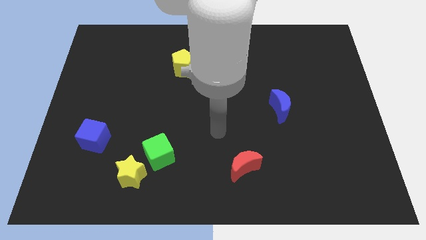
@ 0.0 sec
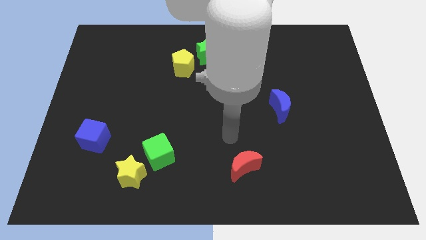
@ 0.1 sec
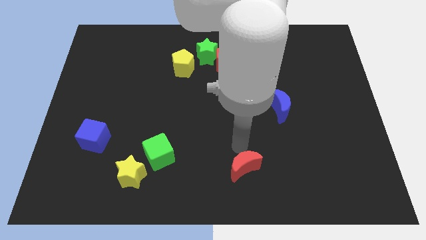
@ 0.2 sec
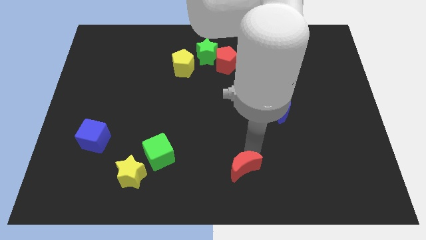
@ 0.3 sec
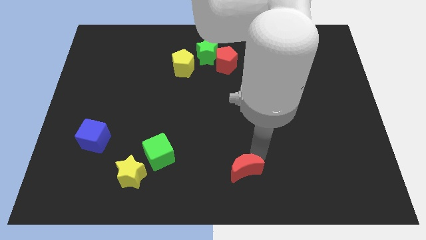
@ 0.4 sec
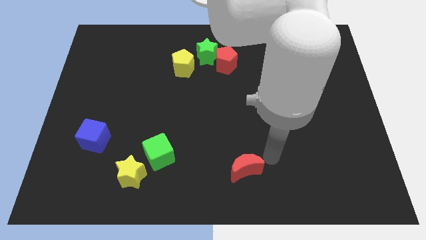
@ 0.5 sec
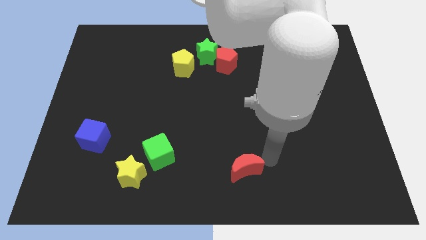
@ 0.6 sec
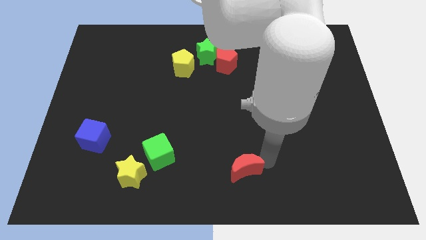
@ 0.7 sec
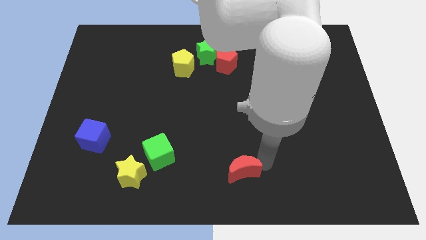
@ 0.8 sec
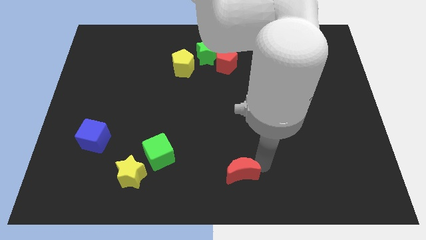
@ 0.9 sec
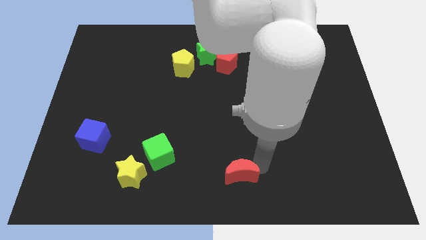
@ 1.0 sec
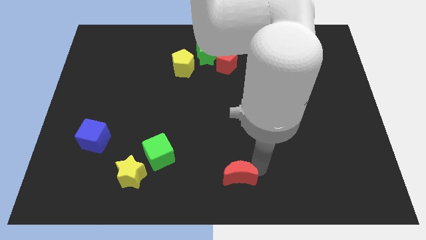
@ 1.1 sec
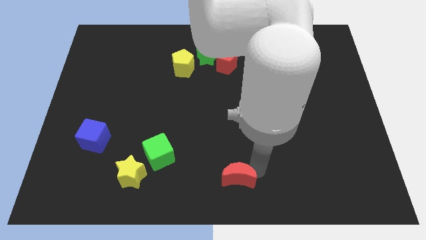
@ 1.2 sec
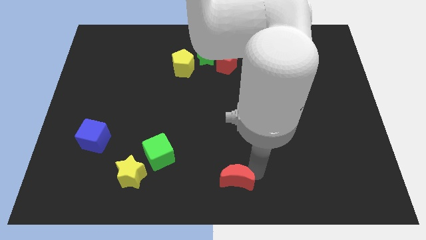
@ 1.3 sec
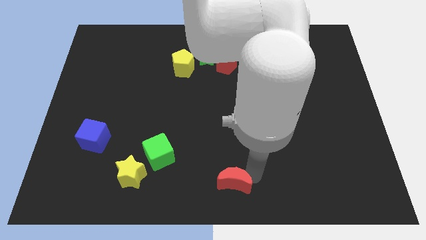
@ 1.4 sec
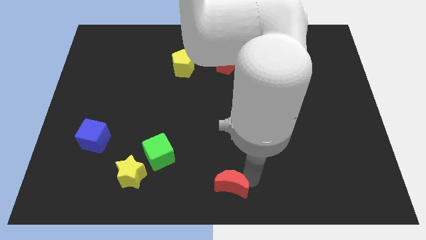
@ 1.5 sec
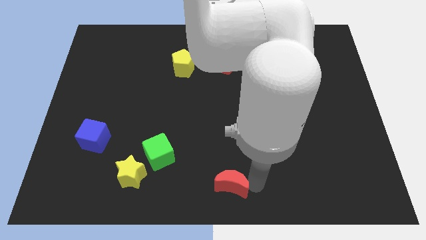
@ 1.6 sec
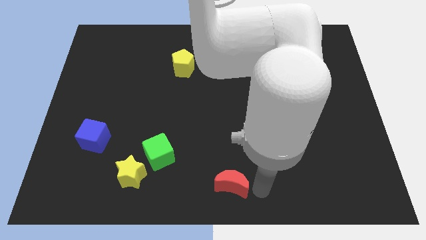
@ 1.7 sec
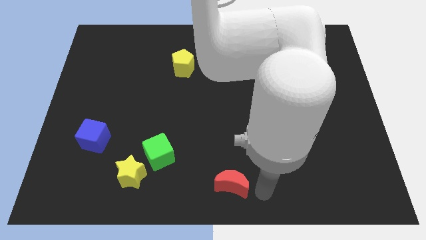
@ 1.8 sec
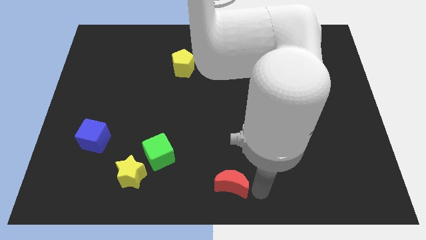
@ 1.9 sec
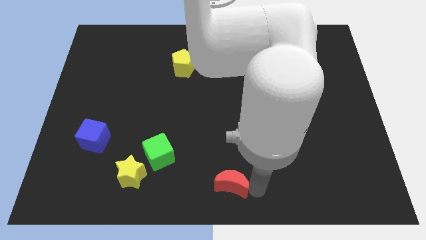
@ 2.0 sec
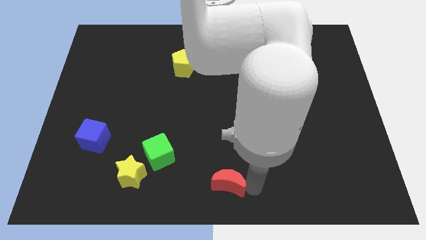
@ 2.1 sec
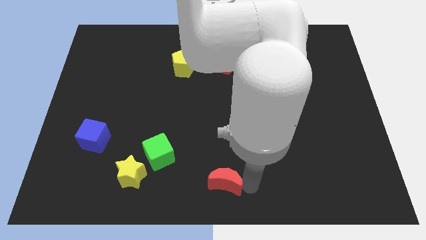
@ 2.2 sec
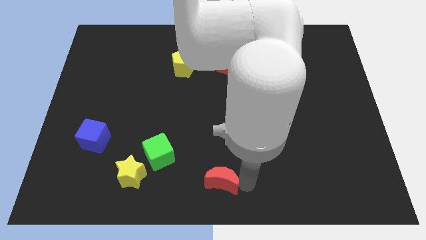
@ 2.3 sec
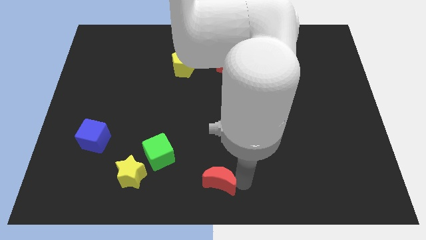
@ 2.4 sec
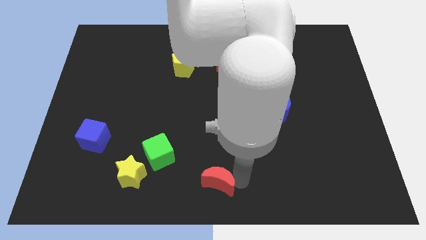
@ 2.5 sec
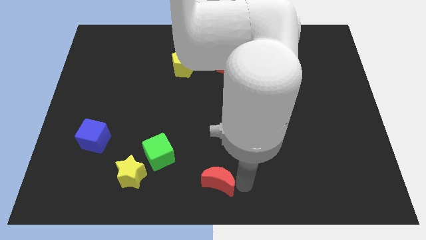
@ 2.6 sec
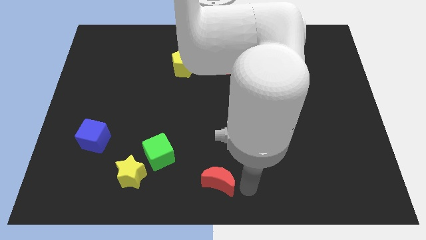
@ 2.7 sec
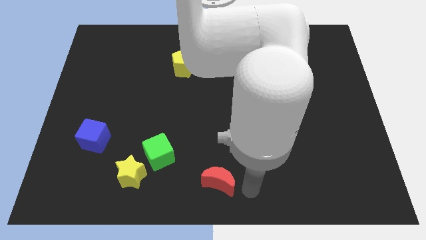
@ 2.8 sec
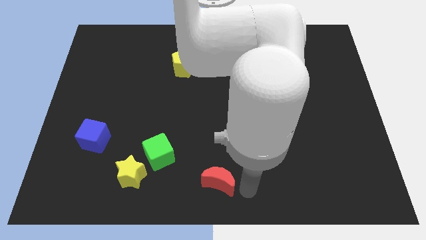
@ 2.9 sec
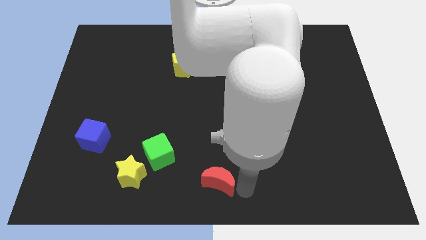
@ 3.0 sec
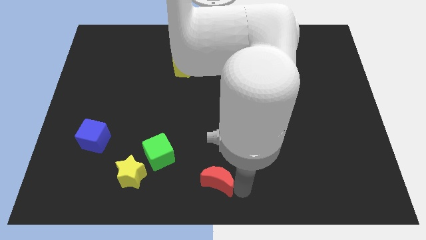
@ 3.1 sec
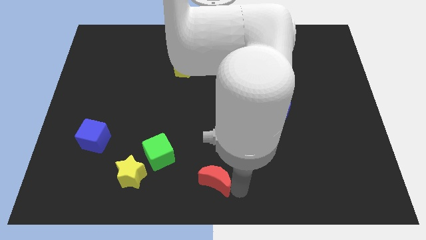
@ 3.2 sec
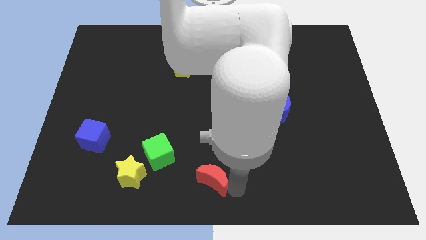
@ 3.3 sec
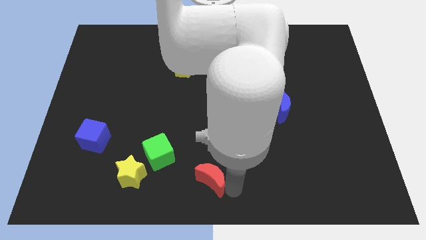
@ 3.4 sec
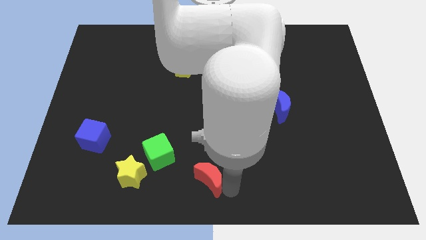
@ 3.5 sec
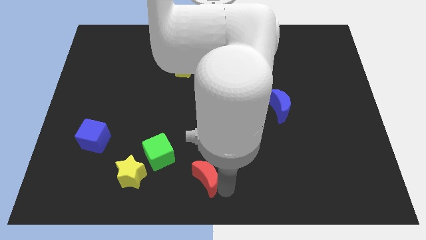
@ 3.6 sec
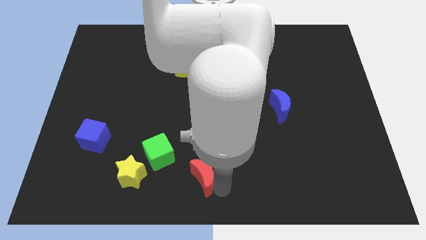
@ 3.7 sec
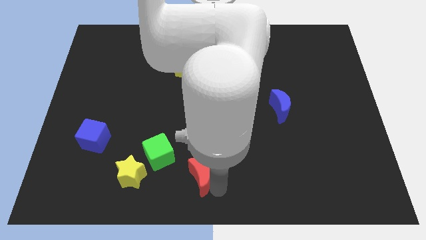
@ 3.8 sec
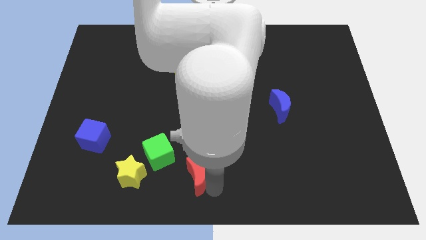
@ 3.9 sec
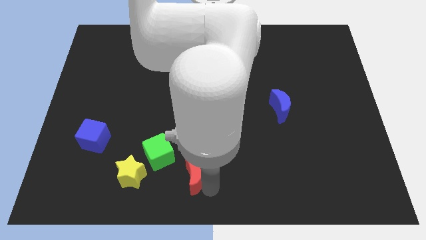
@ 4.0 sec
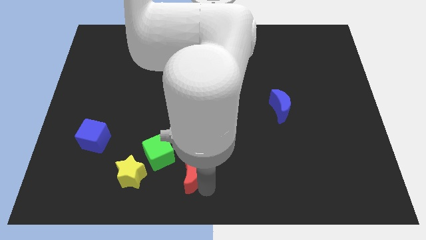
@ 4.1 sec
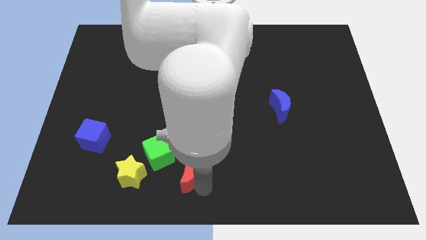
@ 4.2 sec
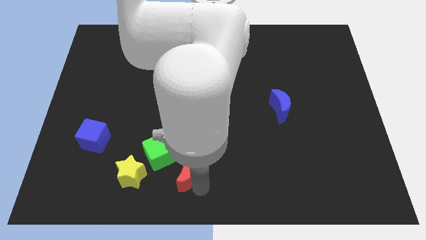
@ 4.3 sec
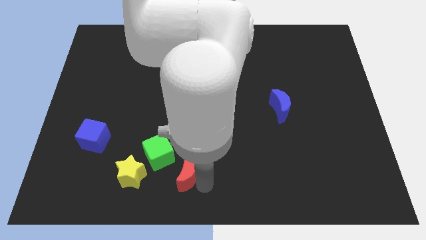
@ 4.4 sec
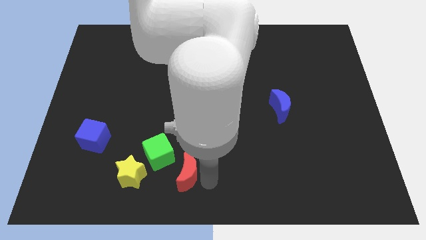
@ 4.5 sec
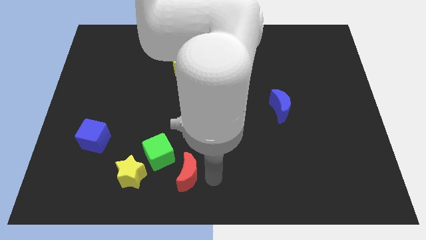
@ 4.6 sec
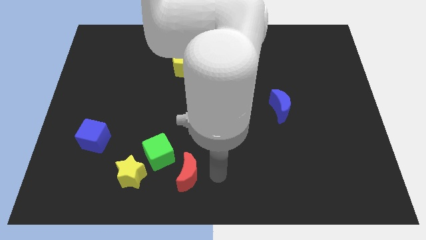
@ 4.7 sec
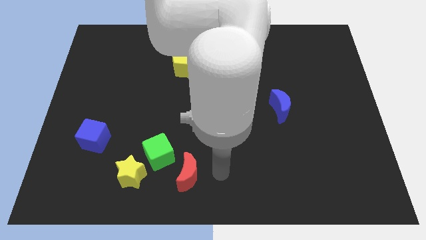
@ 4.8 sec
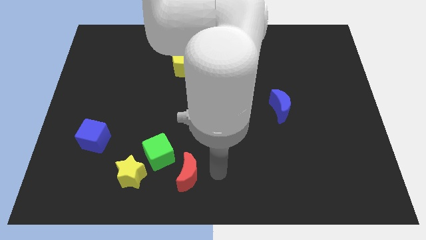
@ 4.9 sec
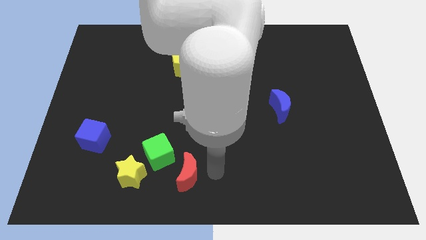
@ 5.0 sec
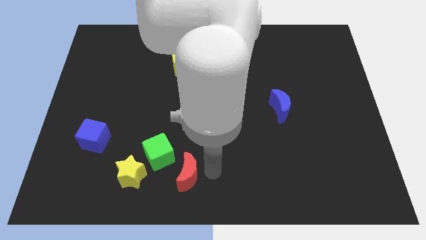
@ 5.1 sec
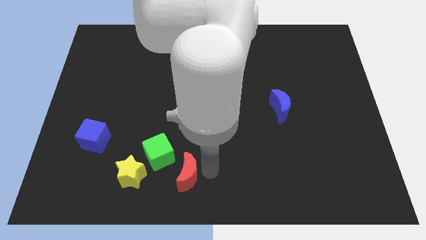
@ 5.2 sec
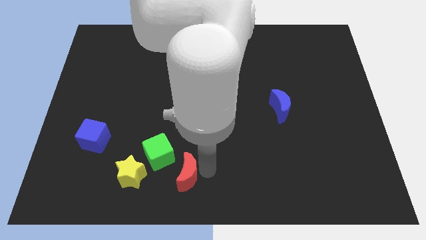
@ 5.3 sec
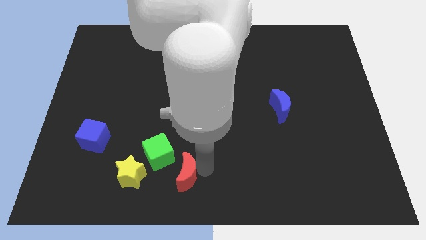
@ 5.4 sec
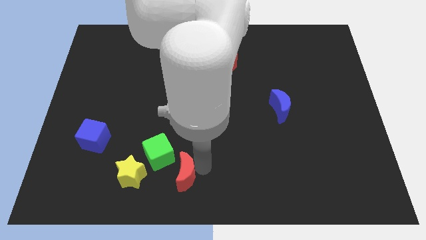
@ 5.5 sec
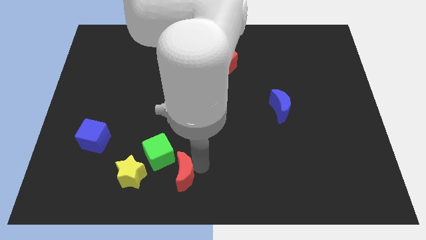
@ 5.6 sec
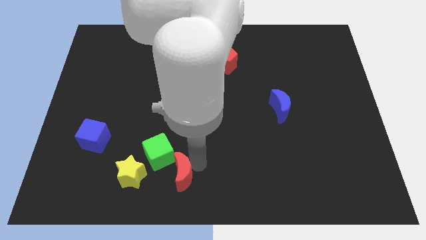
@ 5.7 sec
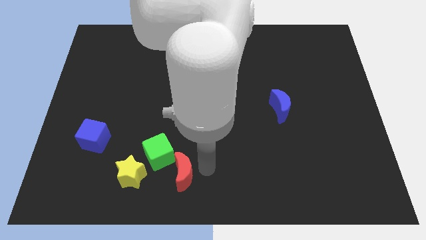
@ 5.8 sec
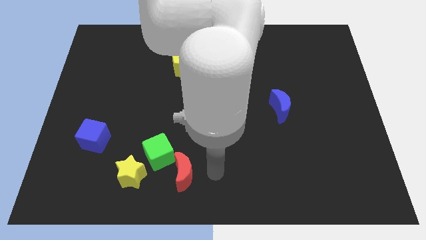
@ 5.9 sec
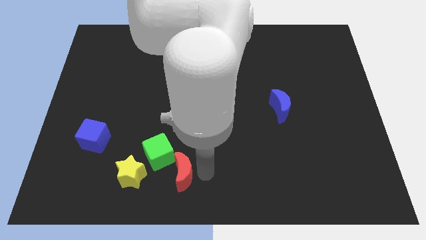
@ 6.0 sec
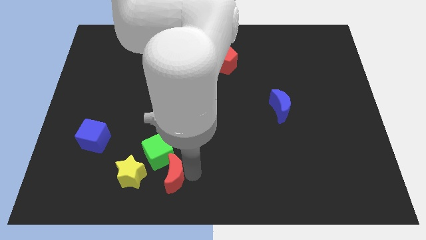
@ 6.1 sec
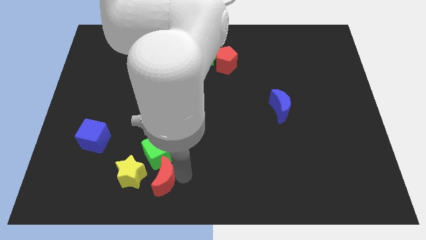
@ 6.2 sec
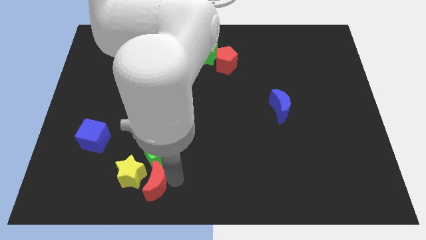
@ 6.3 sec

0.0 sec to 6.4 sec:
move the red moon towards the yellow star

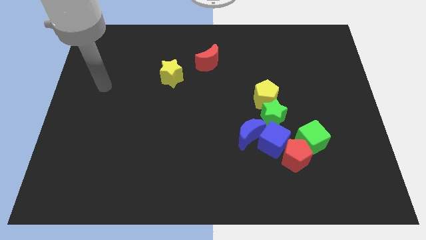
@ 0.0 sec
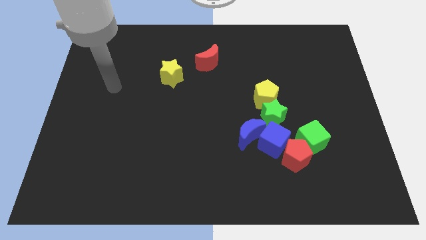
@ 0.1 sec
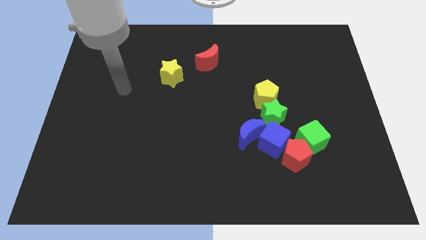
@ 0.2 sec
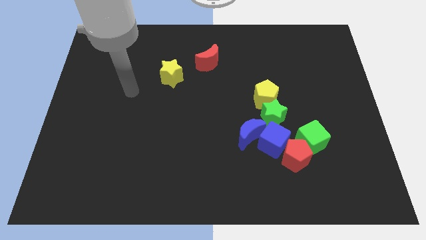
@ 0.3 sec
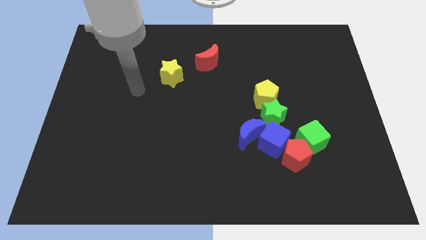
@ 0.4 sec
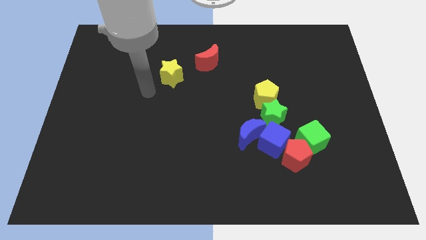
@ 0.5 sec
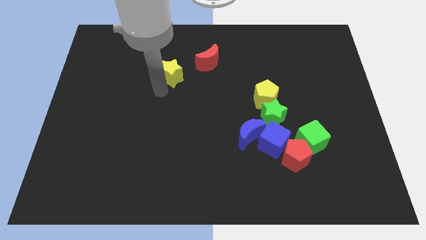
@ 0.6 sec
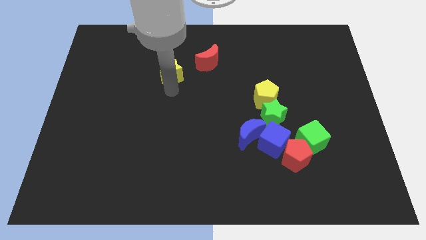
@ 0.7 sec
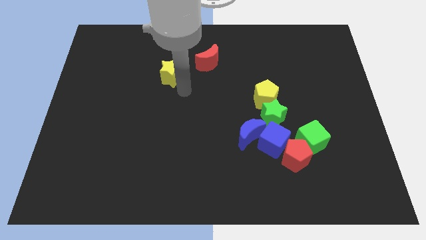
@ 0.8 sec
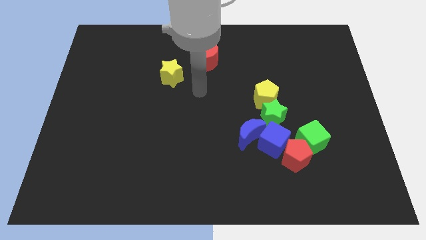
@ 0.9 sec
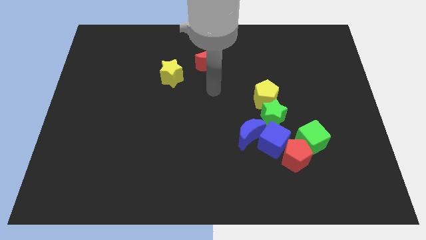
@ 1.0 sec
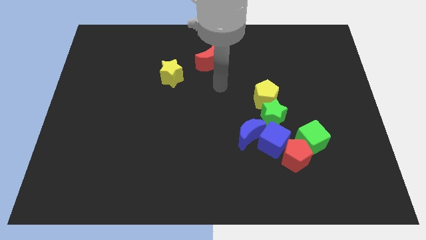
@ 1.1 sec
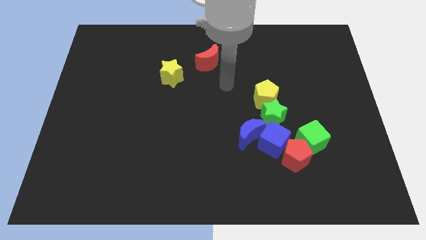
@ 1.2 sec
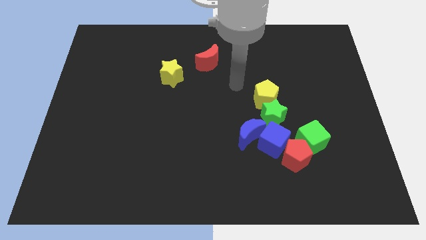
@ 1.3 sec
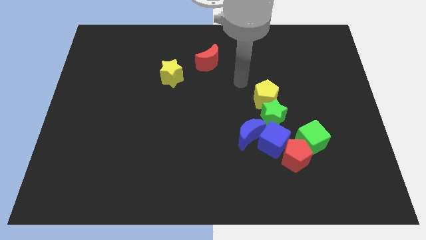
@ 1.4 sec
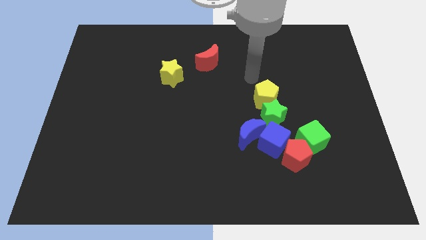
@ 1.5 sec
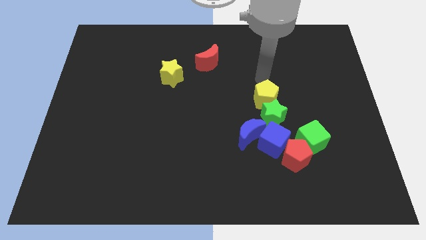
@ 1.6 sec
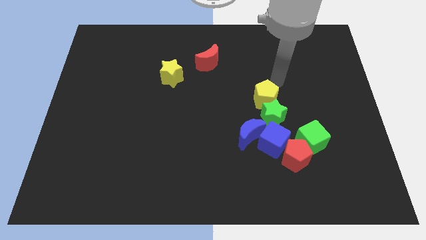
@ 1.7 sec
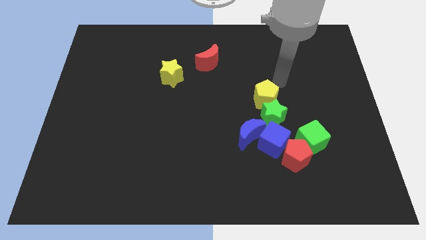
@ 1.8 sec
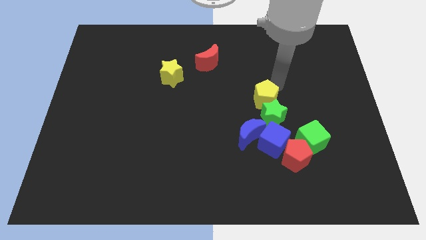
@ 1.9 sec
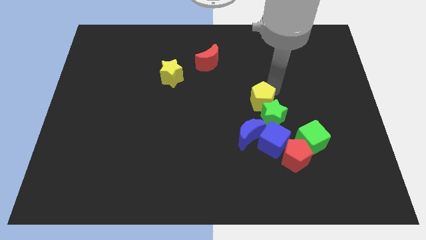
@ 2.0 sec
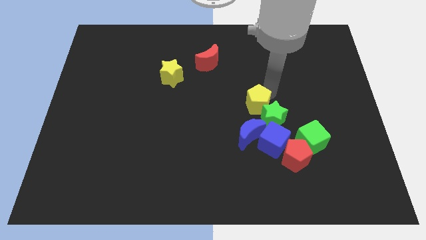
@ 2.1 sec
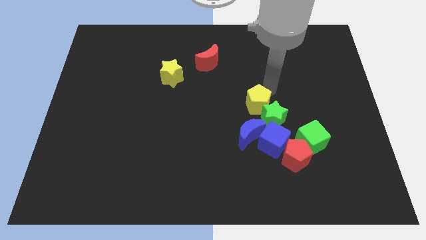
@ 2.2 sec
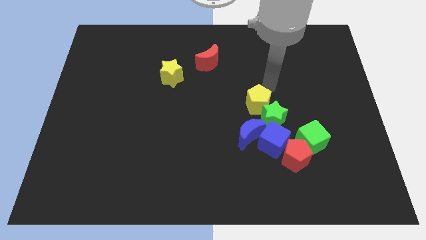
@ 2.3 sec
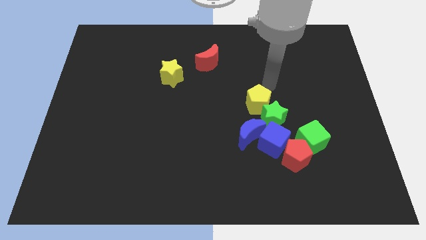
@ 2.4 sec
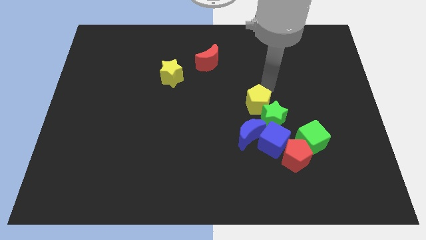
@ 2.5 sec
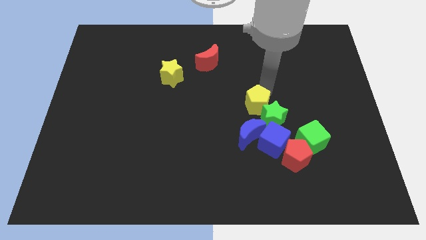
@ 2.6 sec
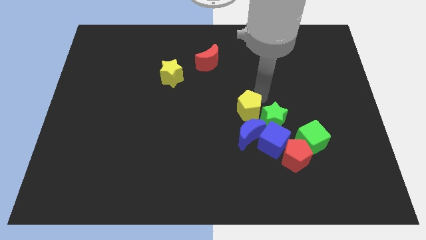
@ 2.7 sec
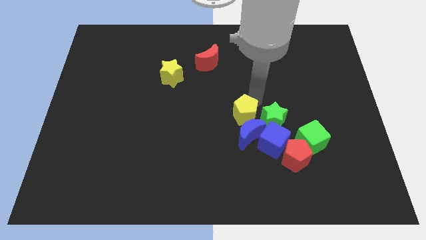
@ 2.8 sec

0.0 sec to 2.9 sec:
push the yellow pentagon close to the blue moon
